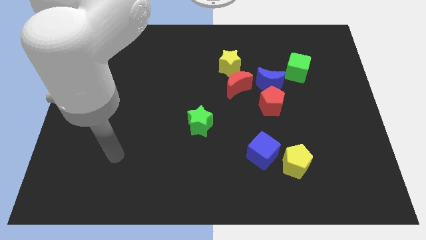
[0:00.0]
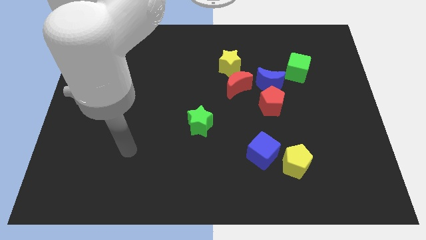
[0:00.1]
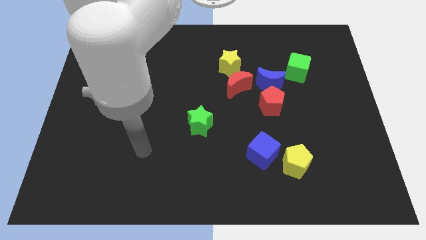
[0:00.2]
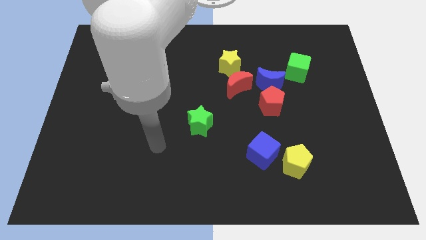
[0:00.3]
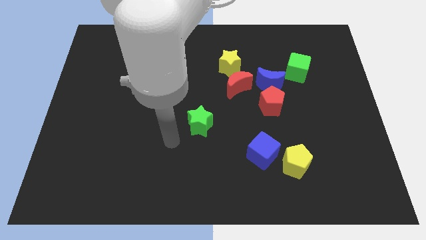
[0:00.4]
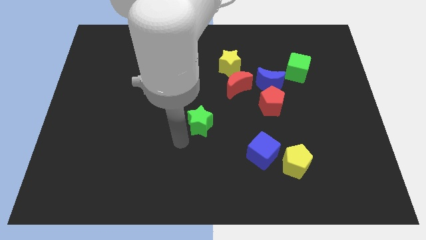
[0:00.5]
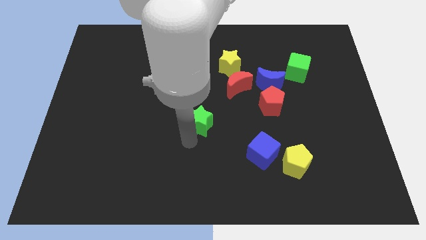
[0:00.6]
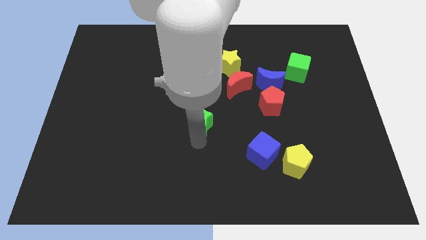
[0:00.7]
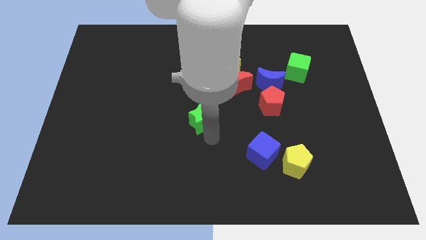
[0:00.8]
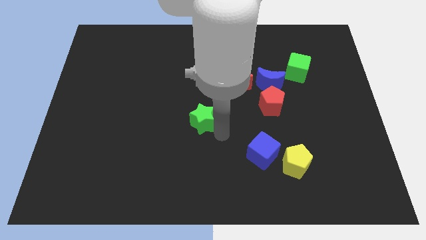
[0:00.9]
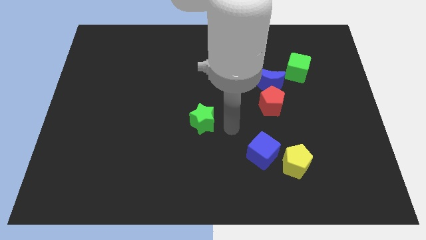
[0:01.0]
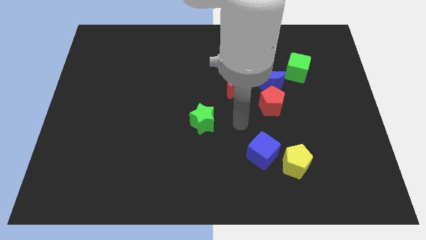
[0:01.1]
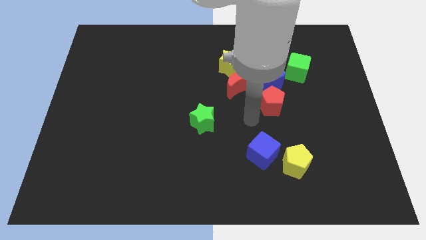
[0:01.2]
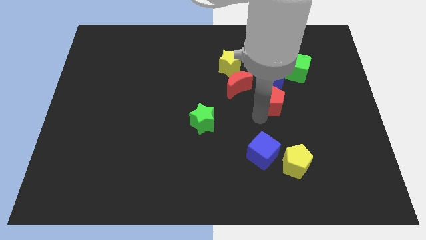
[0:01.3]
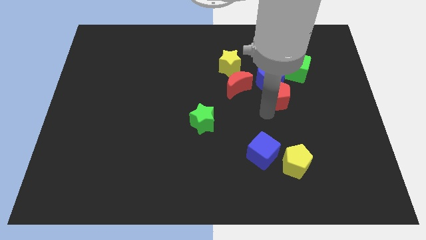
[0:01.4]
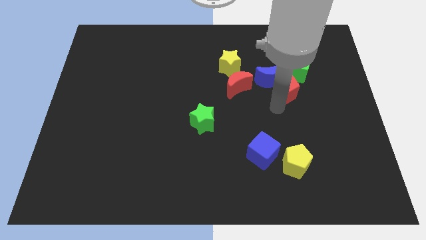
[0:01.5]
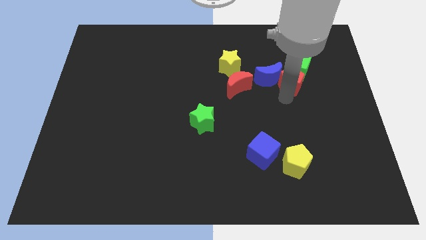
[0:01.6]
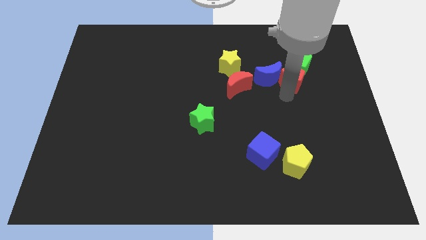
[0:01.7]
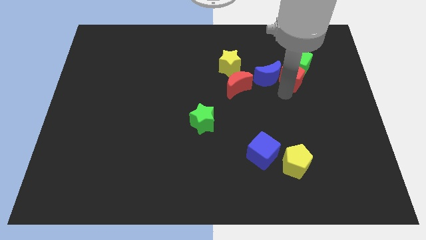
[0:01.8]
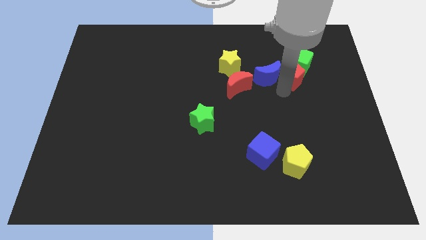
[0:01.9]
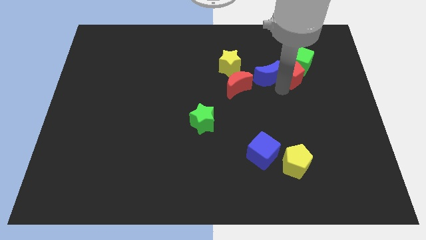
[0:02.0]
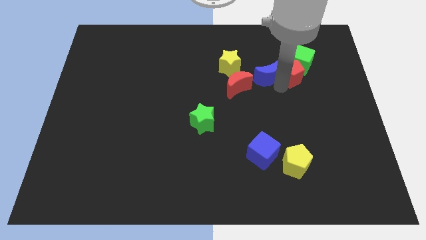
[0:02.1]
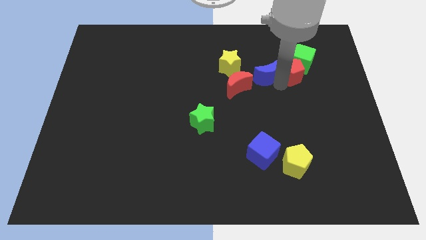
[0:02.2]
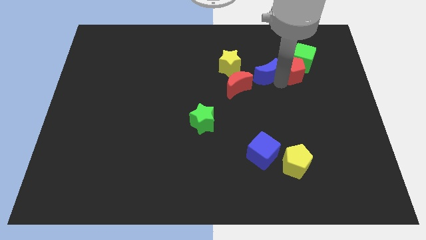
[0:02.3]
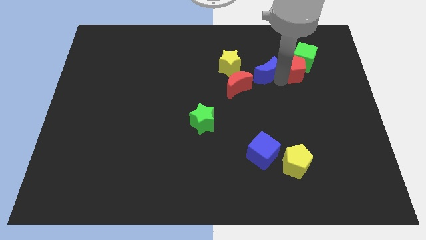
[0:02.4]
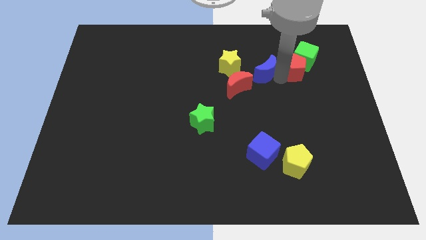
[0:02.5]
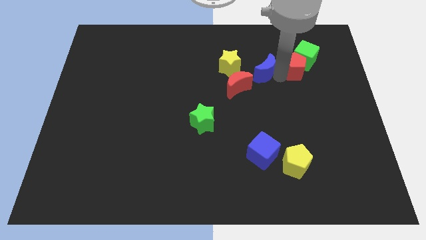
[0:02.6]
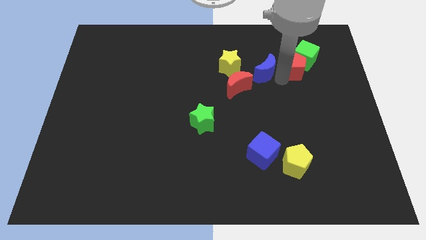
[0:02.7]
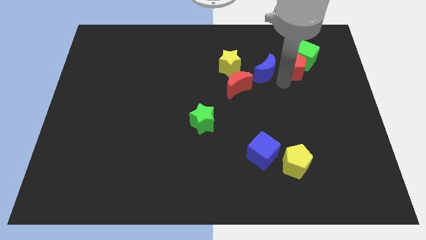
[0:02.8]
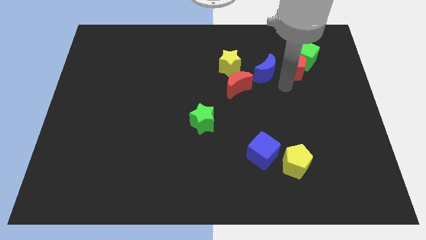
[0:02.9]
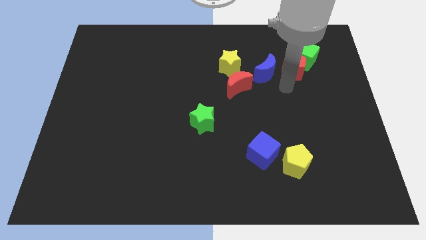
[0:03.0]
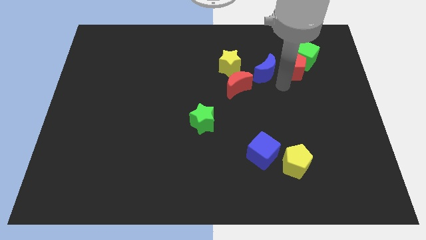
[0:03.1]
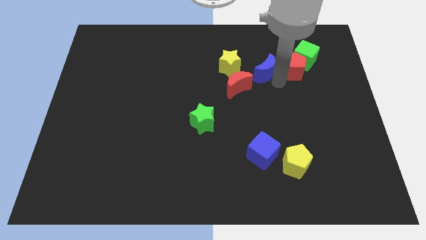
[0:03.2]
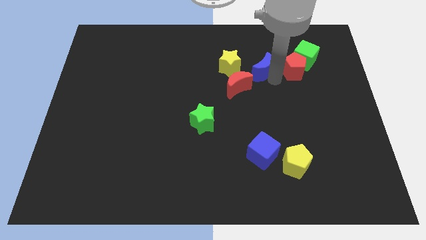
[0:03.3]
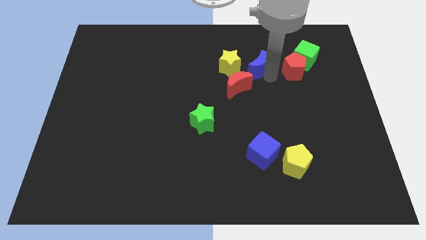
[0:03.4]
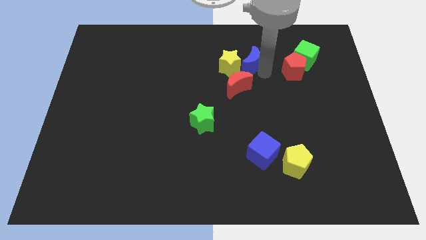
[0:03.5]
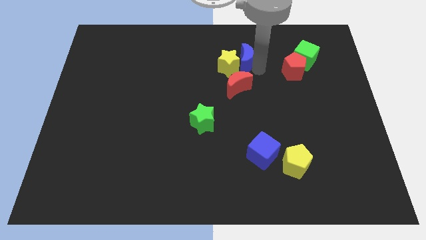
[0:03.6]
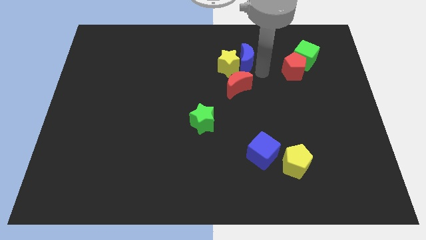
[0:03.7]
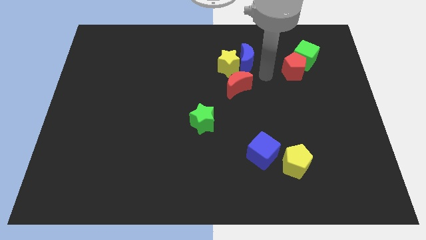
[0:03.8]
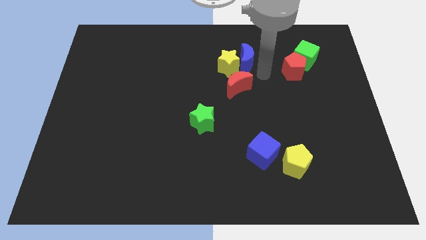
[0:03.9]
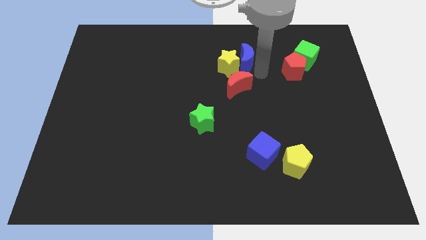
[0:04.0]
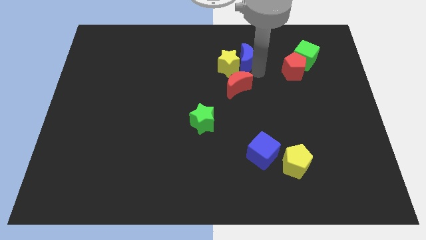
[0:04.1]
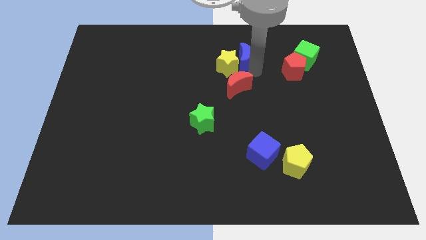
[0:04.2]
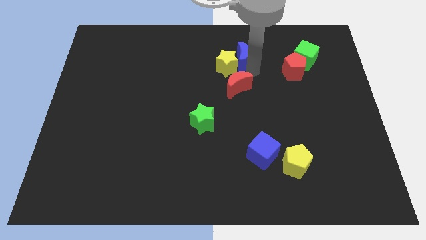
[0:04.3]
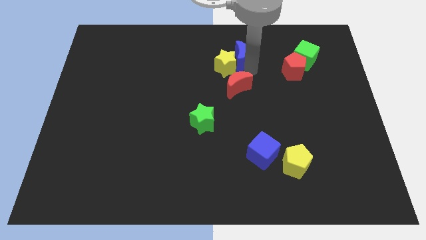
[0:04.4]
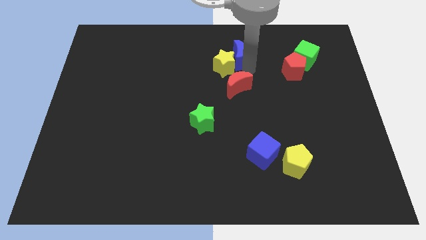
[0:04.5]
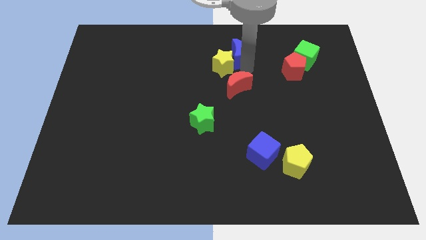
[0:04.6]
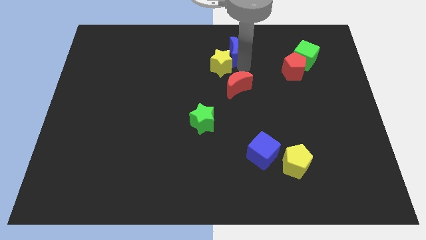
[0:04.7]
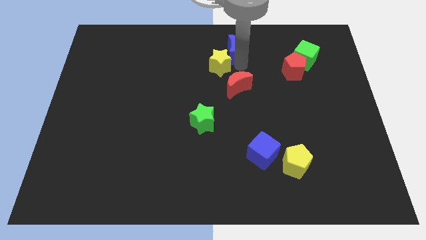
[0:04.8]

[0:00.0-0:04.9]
slide the blue moon to the top side

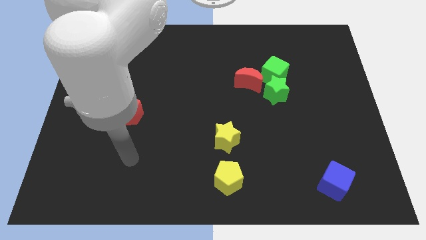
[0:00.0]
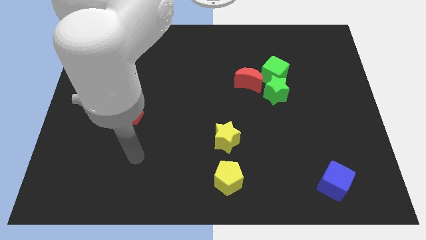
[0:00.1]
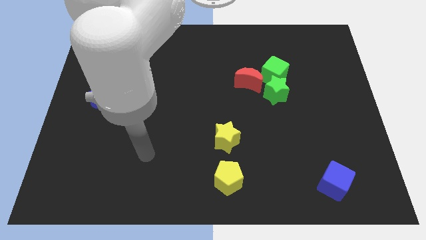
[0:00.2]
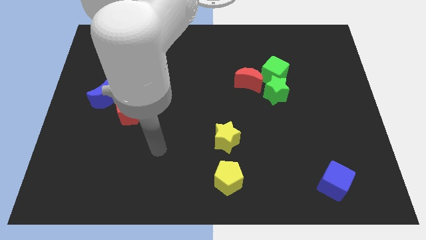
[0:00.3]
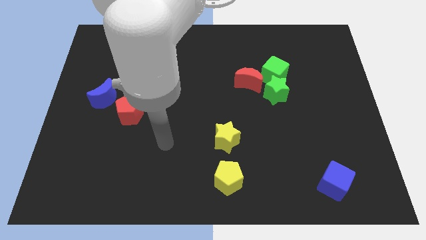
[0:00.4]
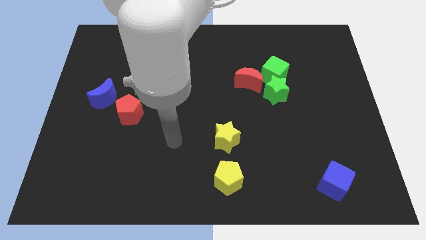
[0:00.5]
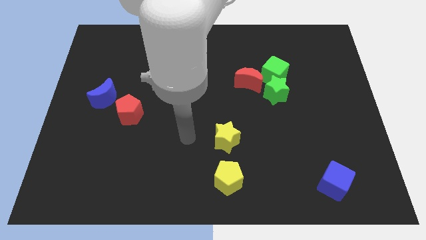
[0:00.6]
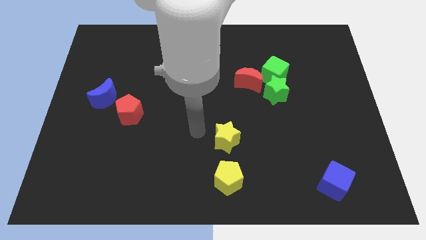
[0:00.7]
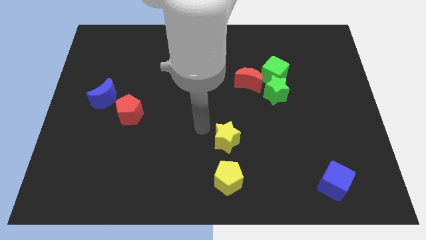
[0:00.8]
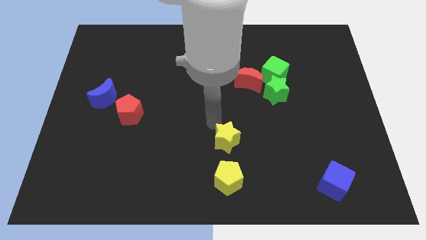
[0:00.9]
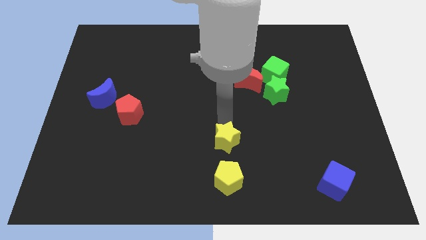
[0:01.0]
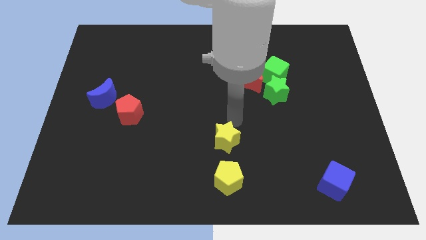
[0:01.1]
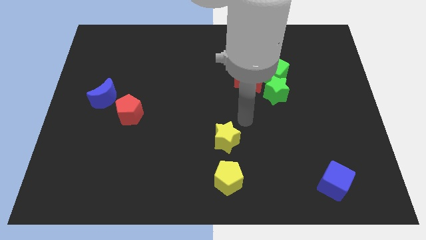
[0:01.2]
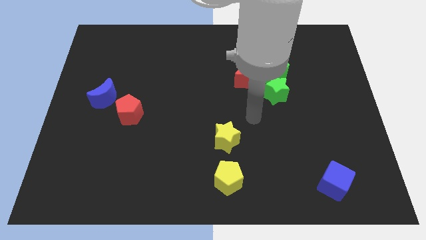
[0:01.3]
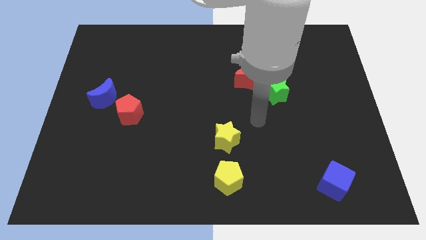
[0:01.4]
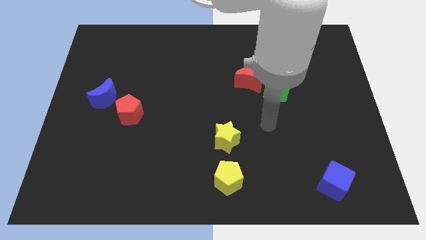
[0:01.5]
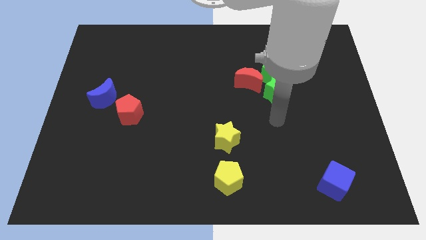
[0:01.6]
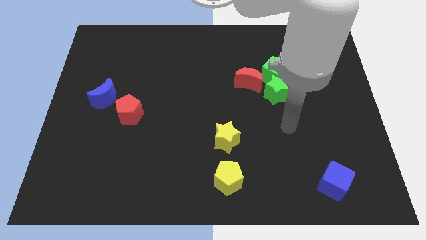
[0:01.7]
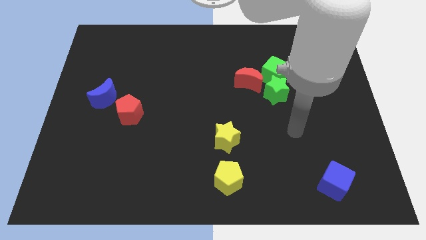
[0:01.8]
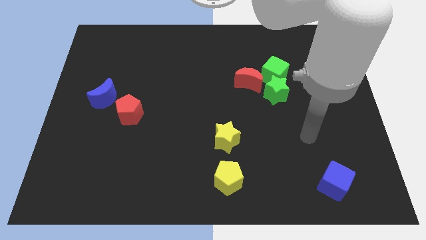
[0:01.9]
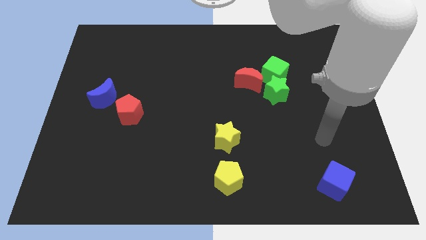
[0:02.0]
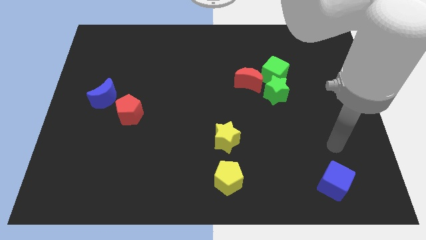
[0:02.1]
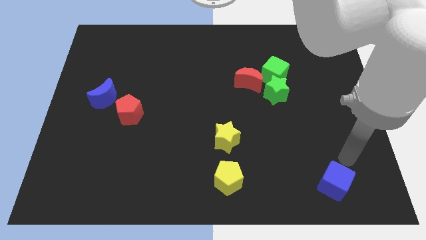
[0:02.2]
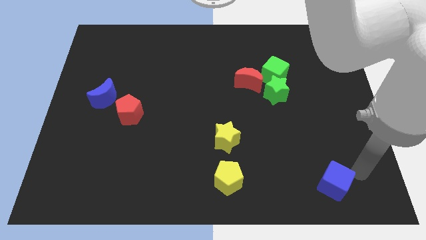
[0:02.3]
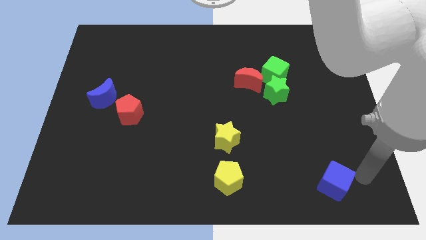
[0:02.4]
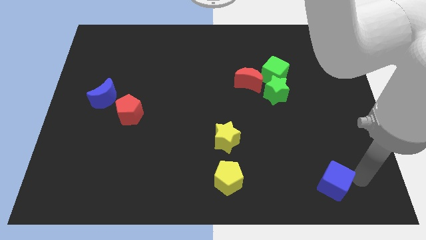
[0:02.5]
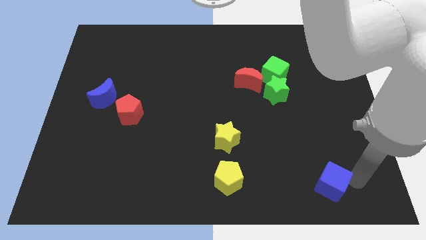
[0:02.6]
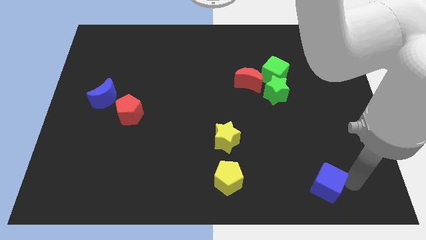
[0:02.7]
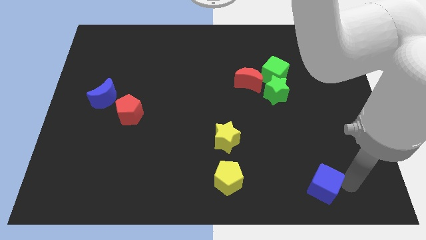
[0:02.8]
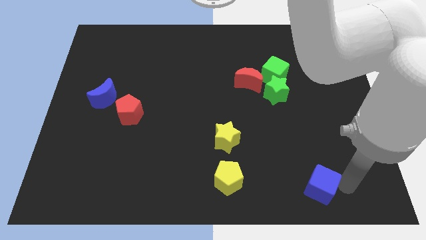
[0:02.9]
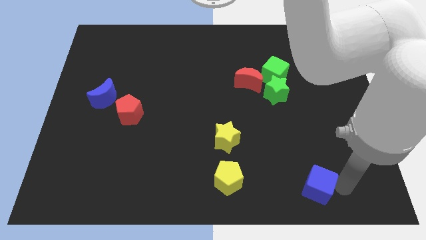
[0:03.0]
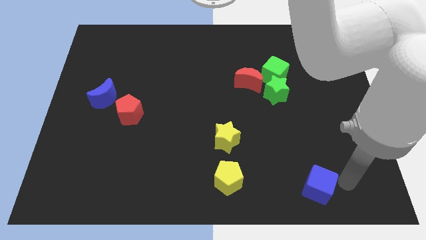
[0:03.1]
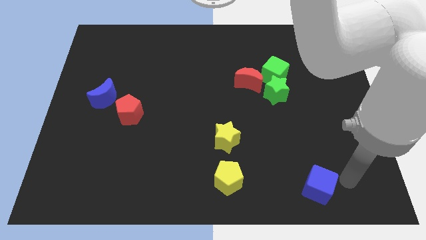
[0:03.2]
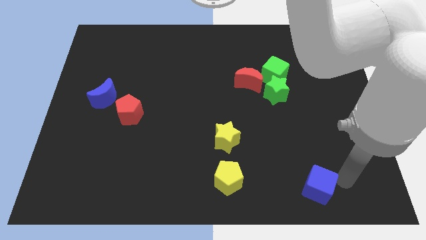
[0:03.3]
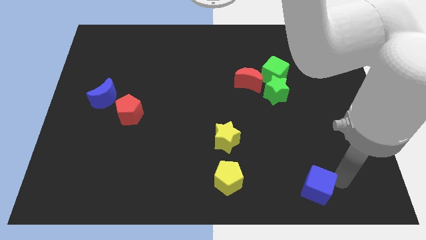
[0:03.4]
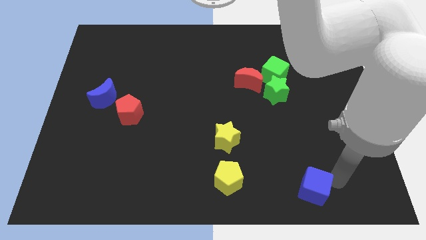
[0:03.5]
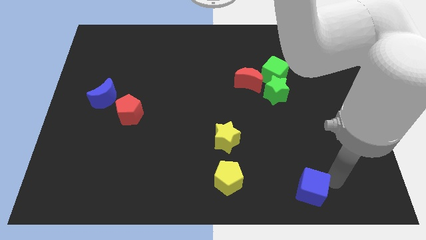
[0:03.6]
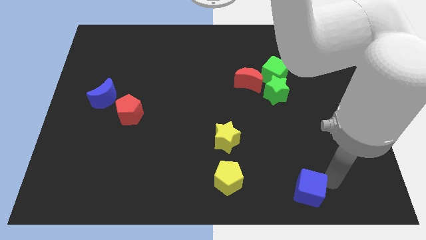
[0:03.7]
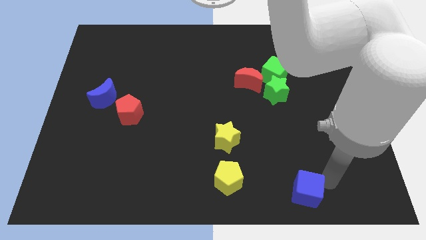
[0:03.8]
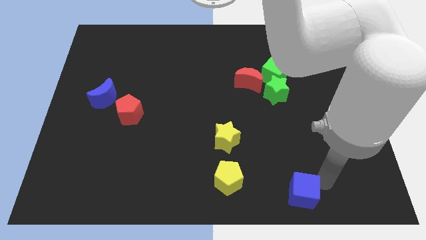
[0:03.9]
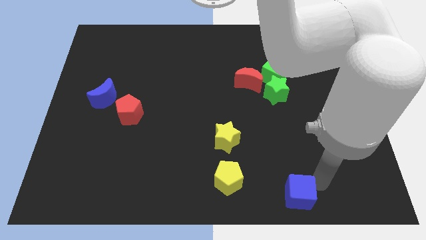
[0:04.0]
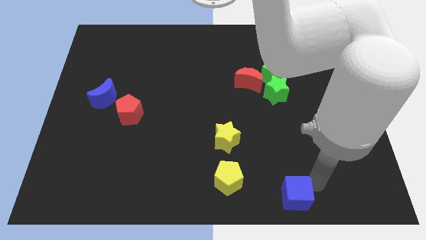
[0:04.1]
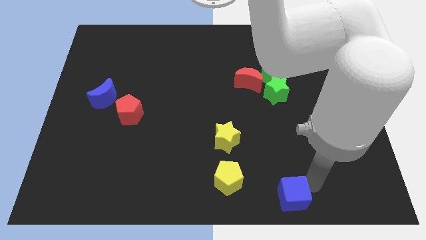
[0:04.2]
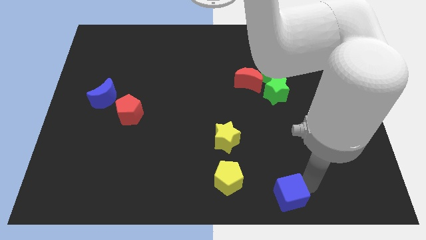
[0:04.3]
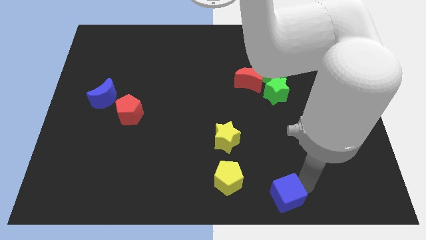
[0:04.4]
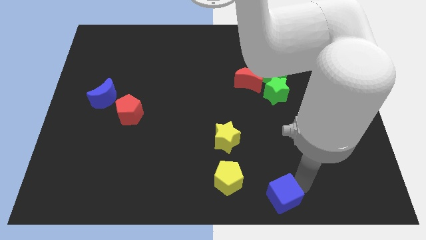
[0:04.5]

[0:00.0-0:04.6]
push the blue cube to the bottom
